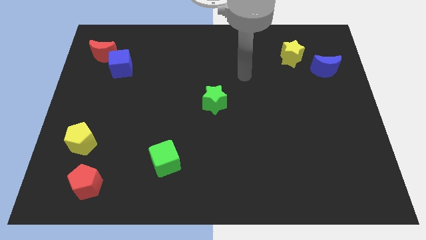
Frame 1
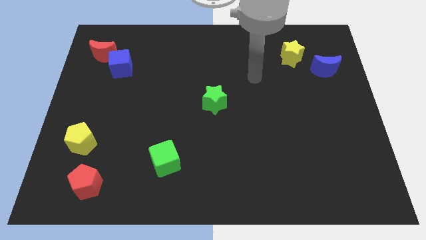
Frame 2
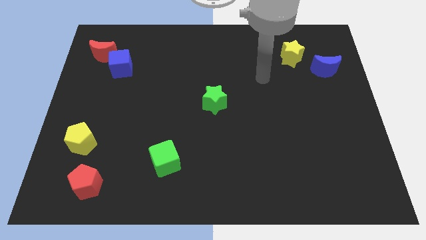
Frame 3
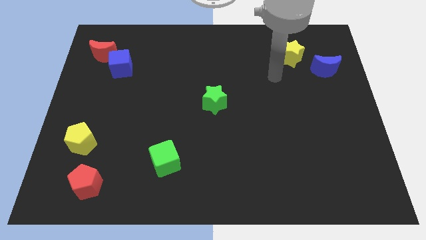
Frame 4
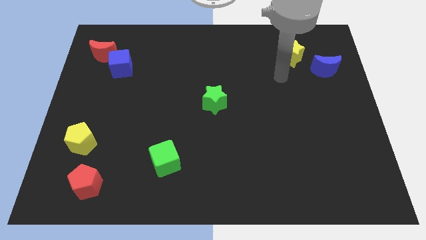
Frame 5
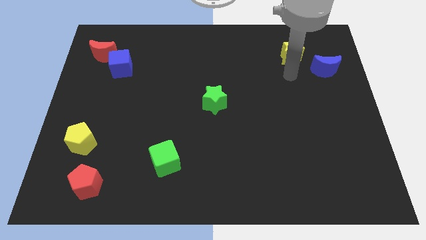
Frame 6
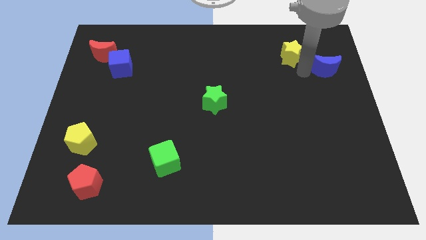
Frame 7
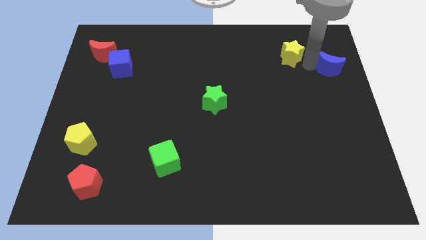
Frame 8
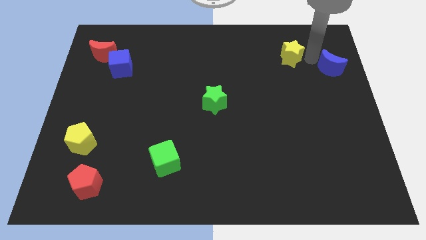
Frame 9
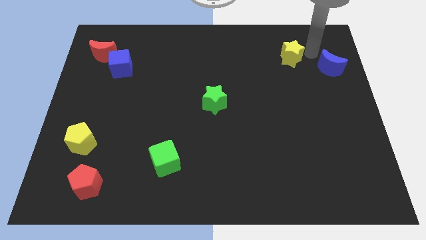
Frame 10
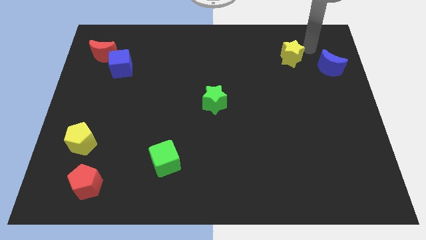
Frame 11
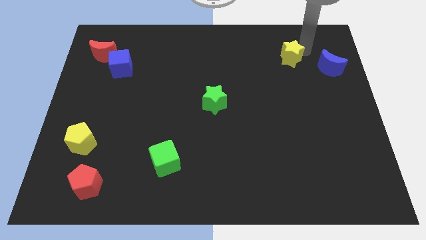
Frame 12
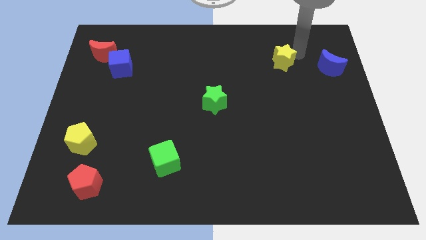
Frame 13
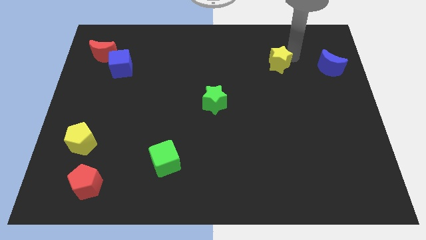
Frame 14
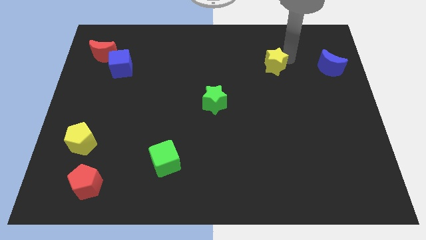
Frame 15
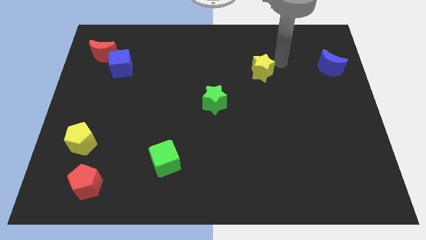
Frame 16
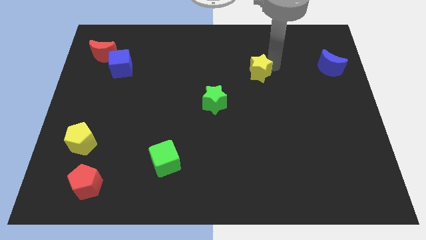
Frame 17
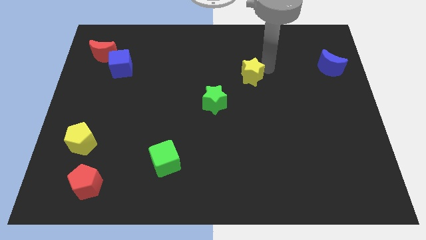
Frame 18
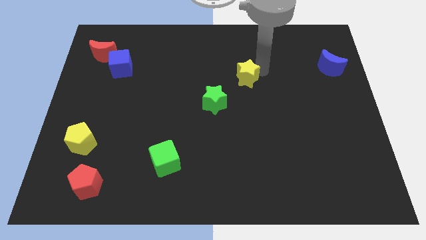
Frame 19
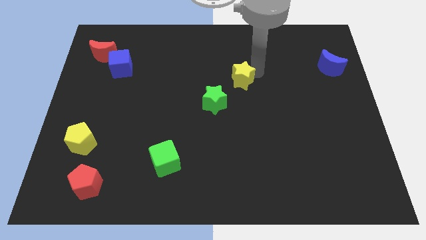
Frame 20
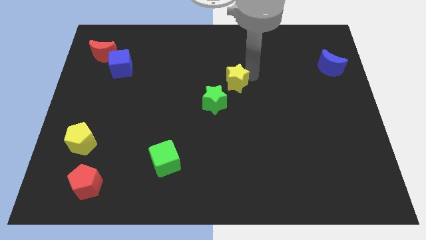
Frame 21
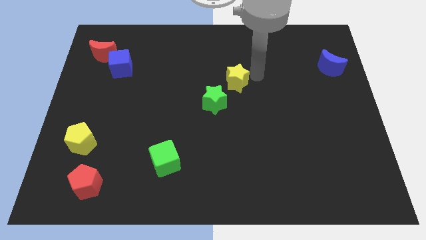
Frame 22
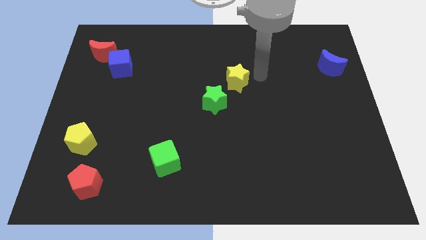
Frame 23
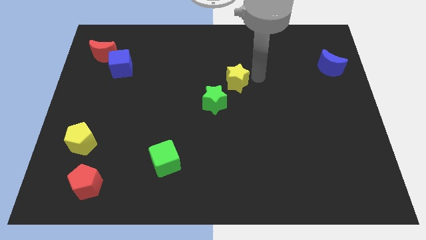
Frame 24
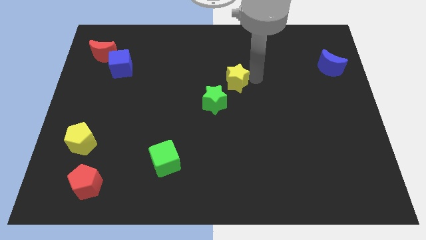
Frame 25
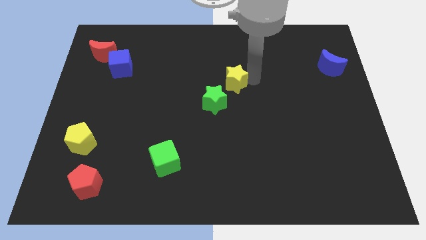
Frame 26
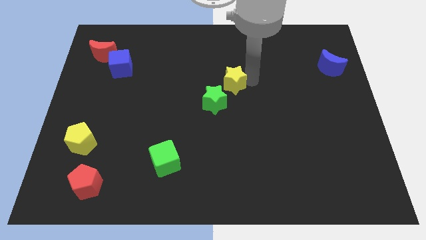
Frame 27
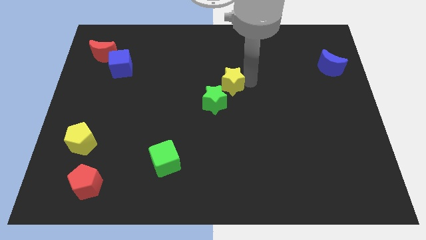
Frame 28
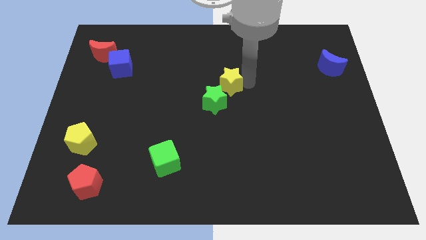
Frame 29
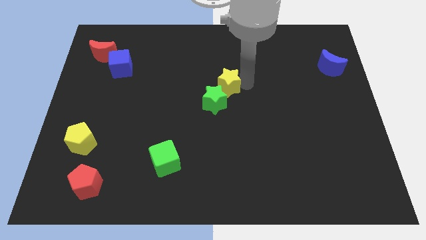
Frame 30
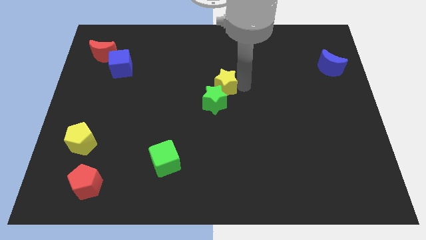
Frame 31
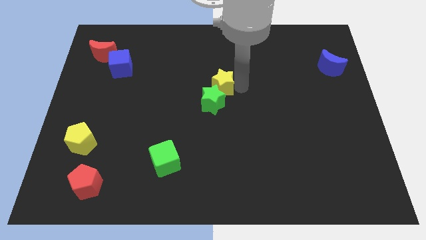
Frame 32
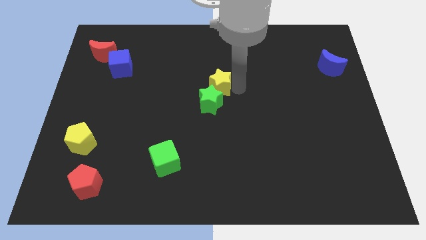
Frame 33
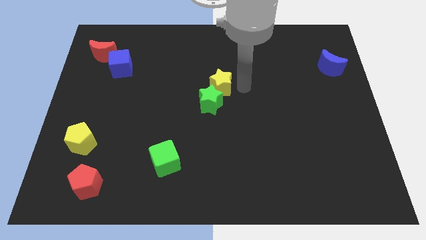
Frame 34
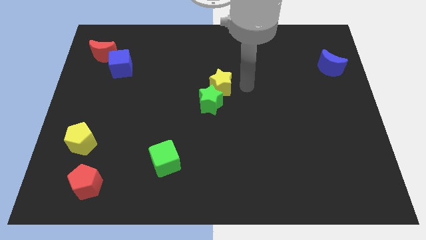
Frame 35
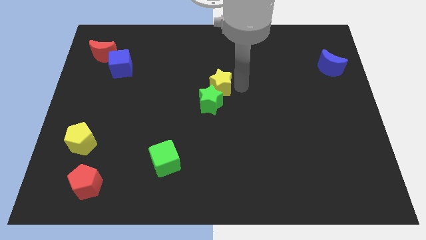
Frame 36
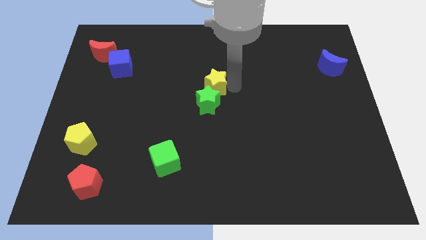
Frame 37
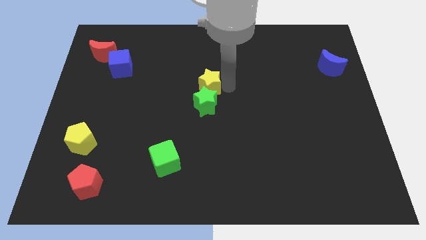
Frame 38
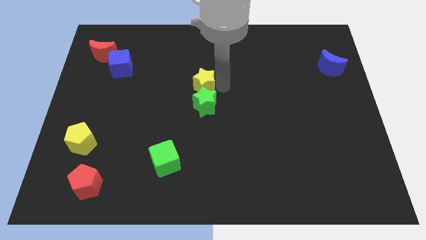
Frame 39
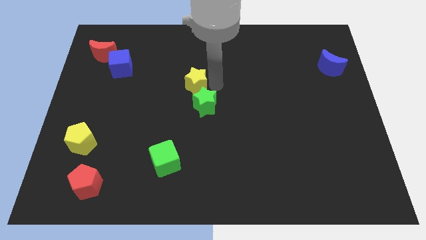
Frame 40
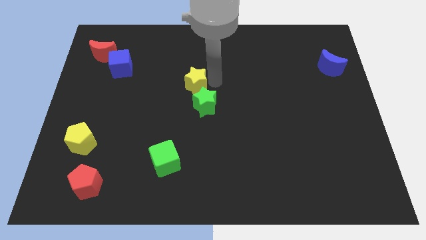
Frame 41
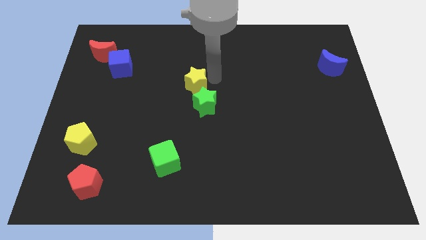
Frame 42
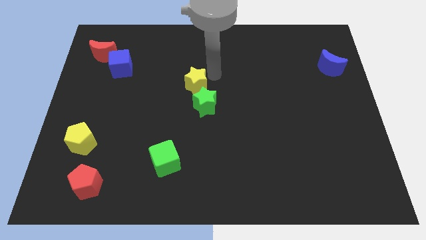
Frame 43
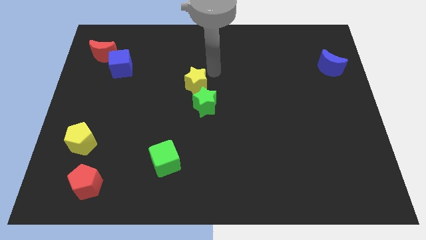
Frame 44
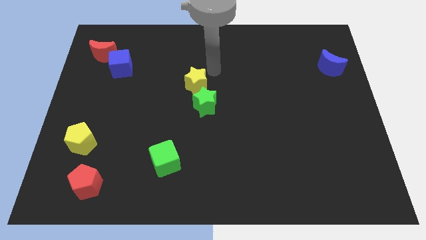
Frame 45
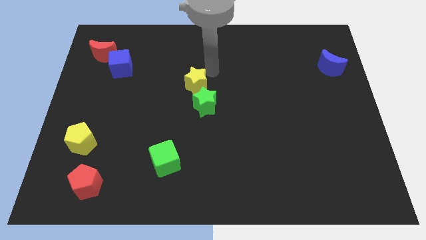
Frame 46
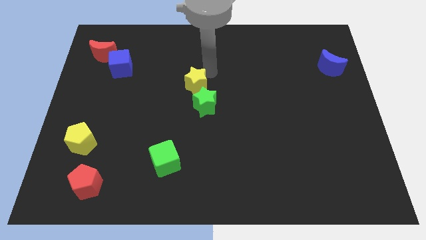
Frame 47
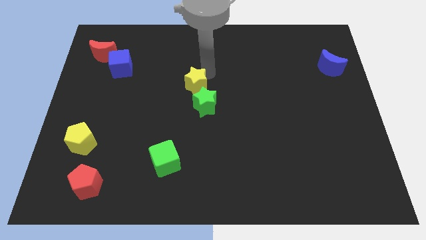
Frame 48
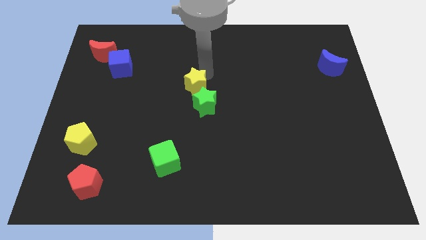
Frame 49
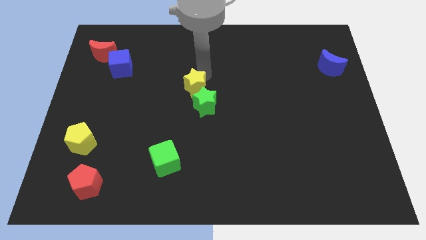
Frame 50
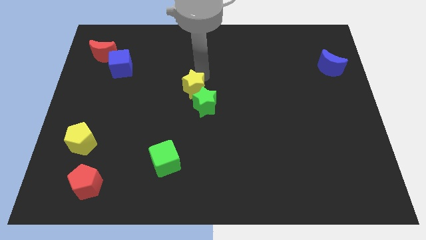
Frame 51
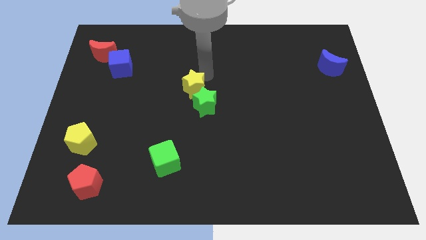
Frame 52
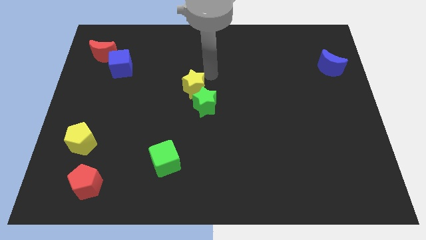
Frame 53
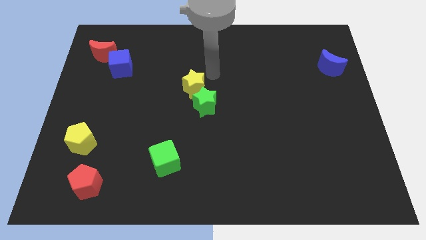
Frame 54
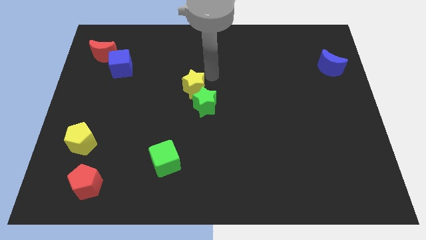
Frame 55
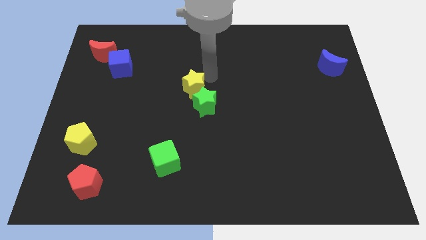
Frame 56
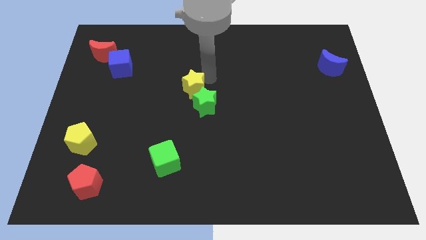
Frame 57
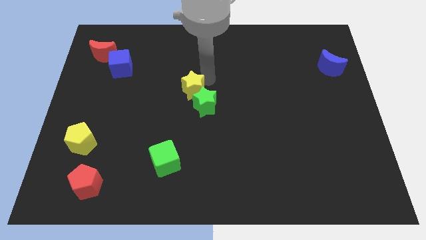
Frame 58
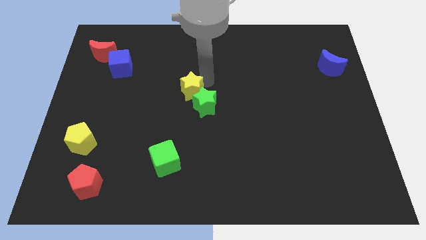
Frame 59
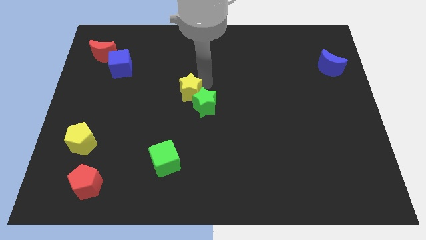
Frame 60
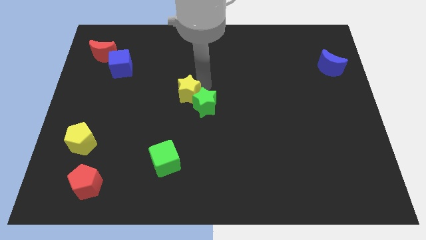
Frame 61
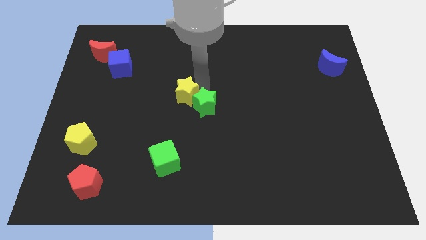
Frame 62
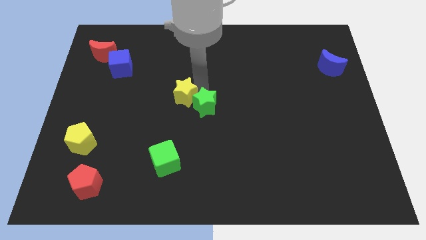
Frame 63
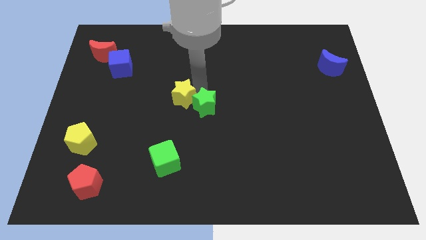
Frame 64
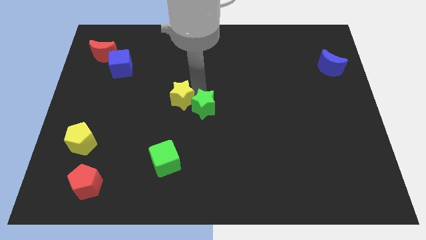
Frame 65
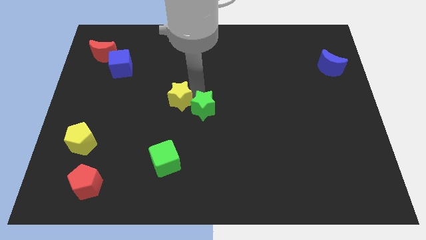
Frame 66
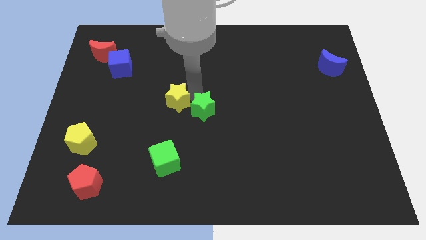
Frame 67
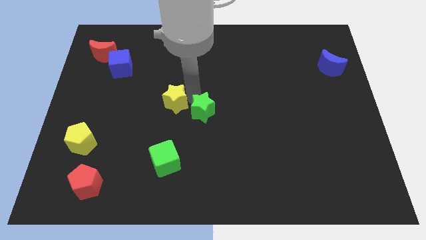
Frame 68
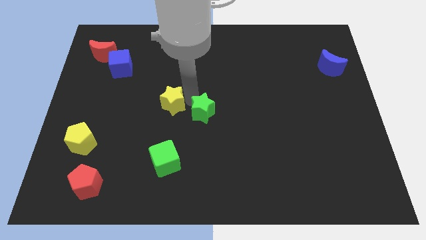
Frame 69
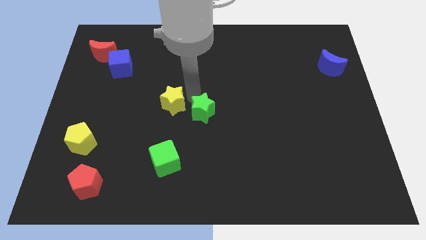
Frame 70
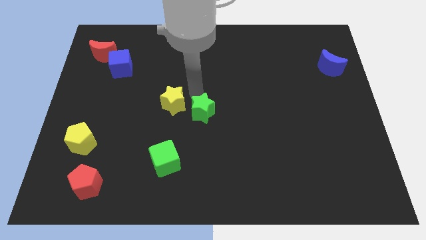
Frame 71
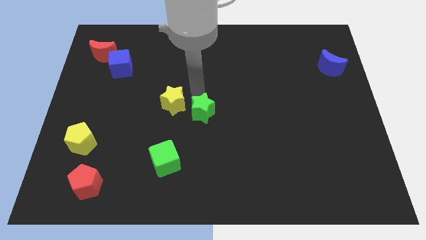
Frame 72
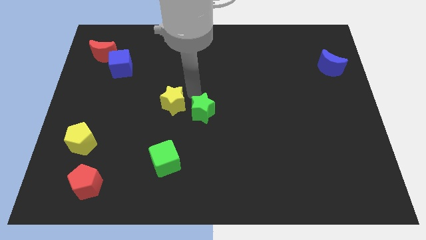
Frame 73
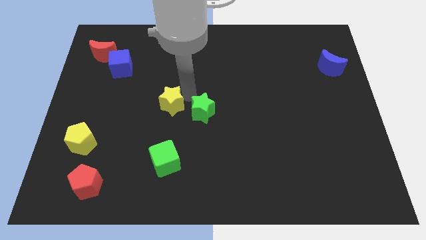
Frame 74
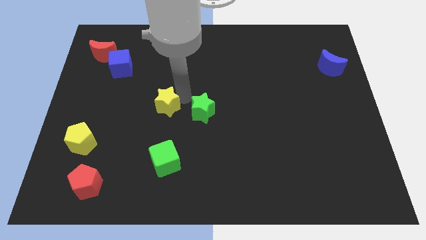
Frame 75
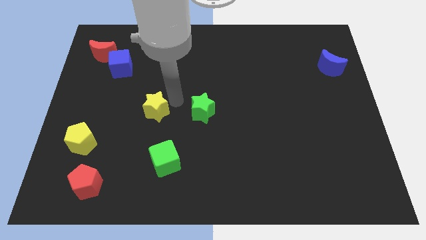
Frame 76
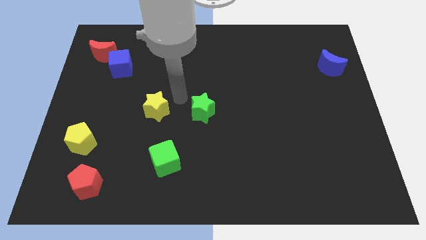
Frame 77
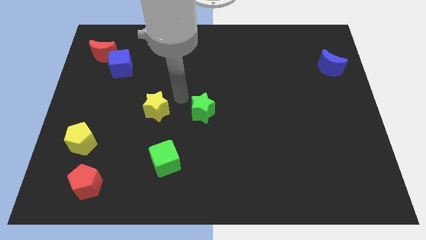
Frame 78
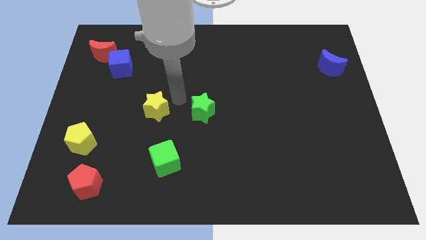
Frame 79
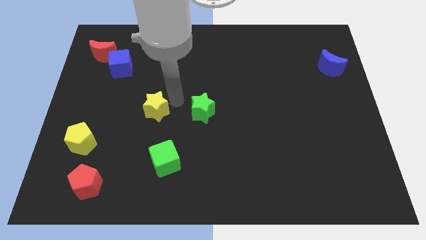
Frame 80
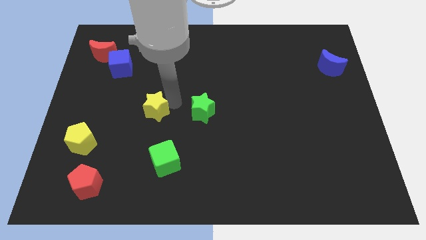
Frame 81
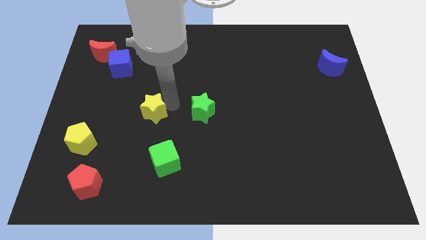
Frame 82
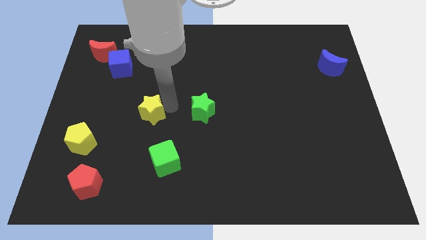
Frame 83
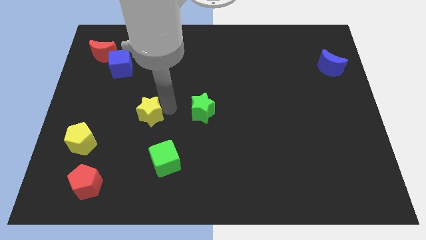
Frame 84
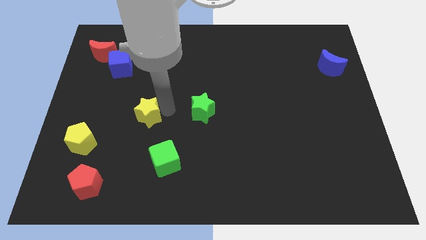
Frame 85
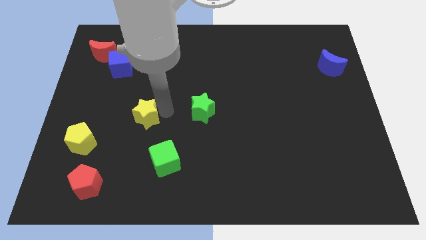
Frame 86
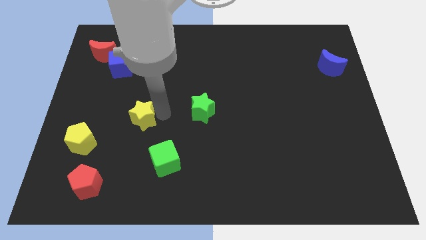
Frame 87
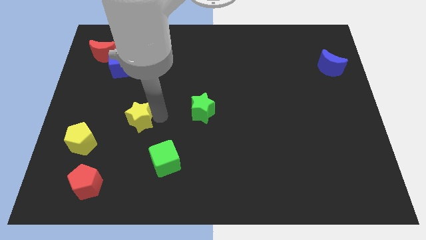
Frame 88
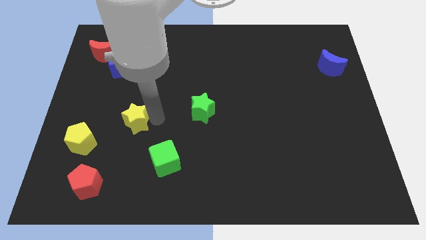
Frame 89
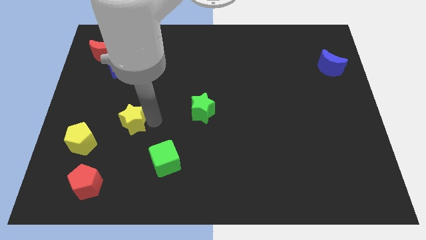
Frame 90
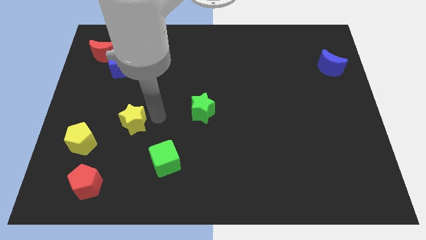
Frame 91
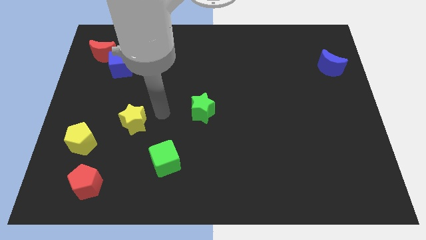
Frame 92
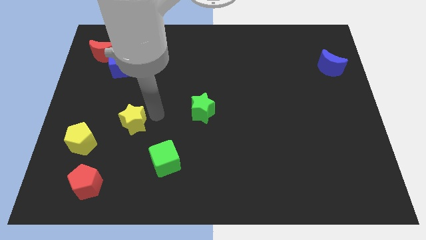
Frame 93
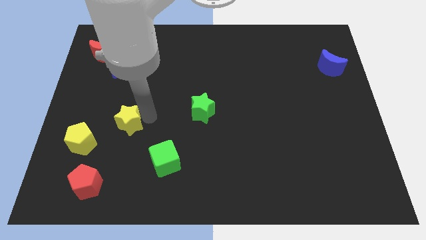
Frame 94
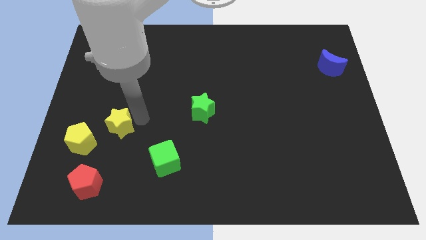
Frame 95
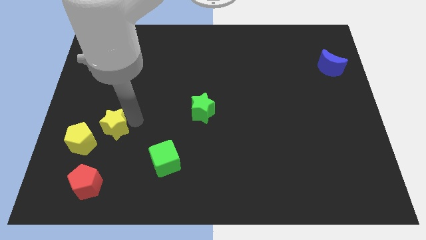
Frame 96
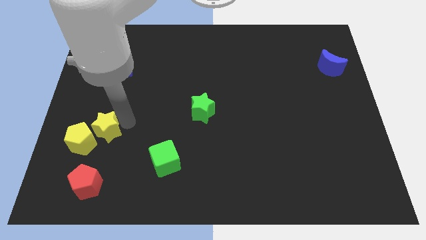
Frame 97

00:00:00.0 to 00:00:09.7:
push the yellow star close to the yellow pentagon
